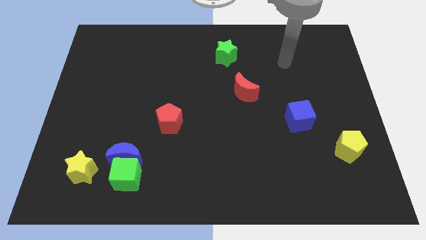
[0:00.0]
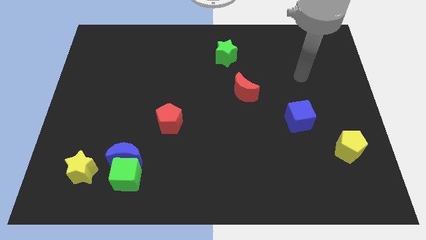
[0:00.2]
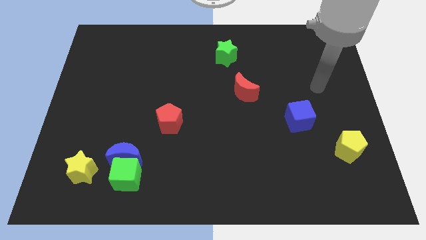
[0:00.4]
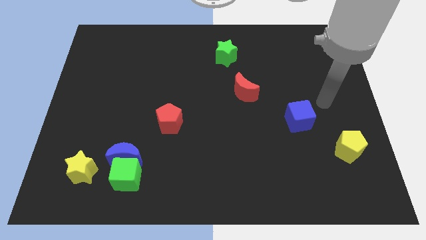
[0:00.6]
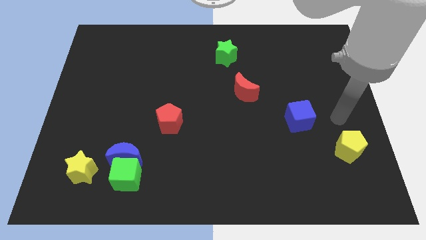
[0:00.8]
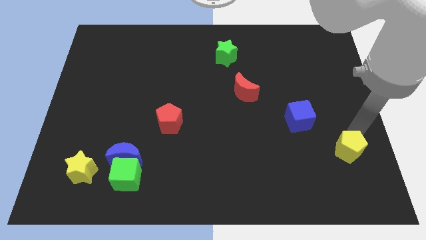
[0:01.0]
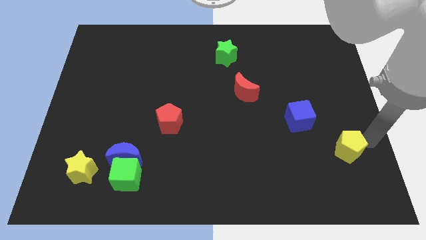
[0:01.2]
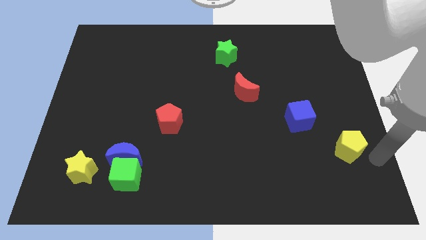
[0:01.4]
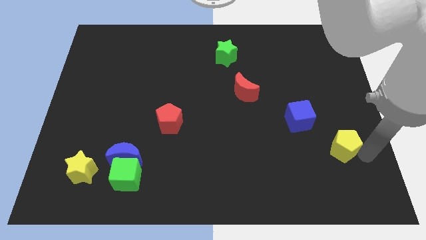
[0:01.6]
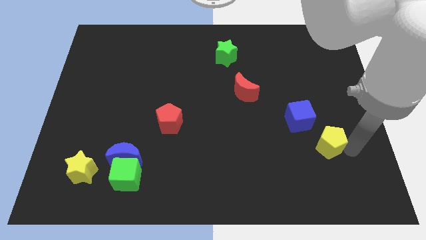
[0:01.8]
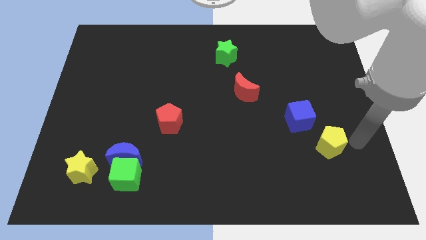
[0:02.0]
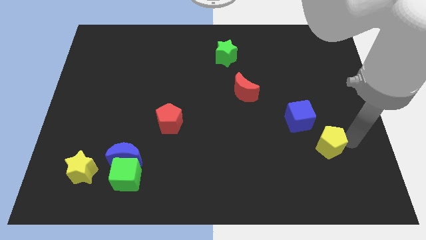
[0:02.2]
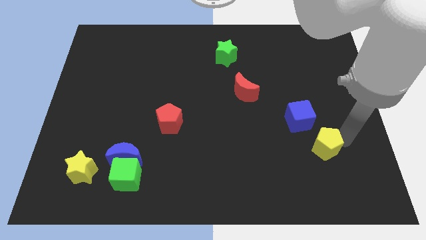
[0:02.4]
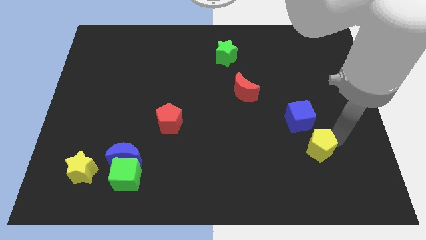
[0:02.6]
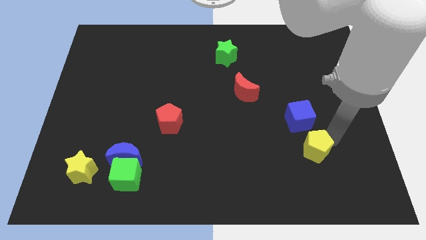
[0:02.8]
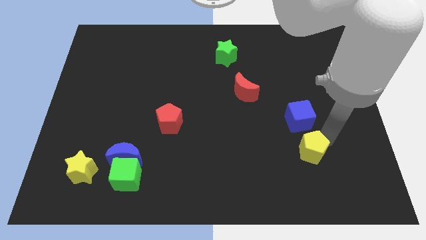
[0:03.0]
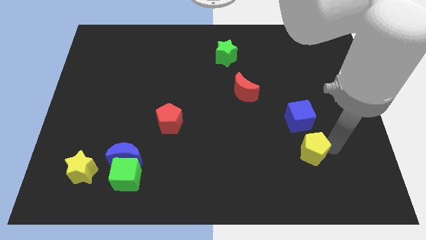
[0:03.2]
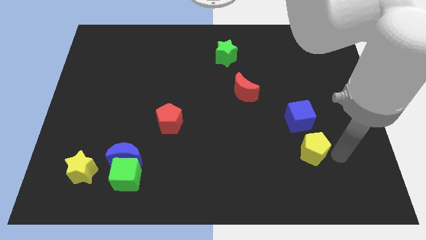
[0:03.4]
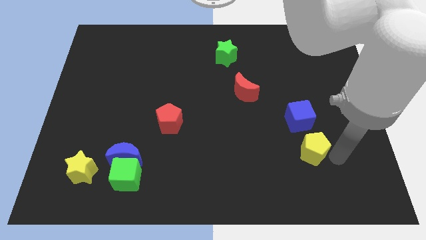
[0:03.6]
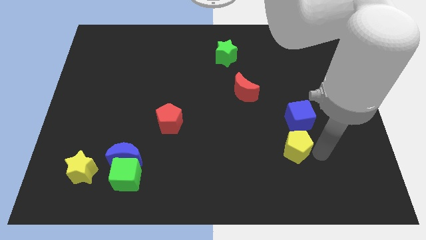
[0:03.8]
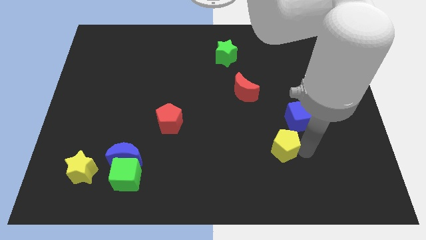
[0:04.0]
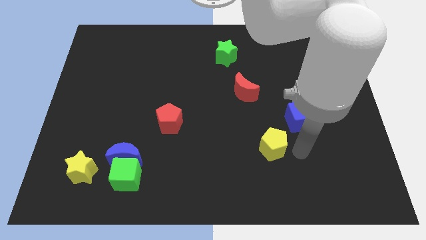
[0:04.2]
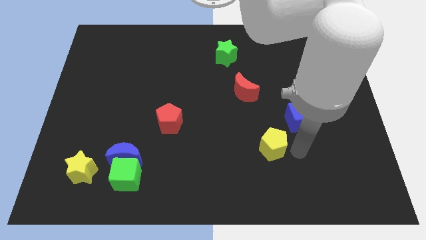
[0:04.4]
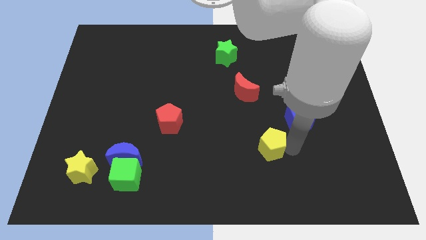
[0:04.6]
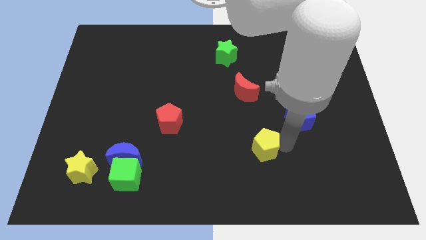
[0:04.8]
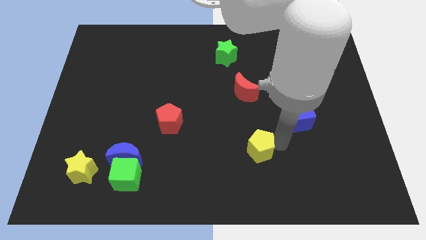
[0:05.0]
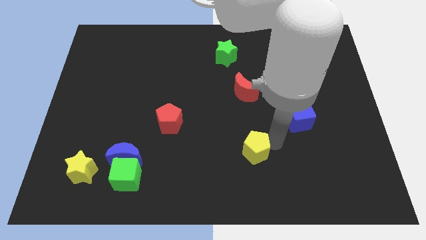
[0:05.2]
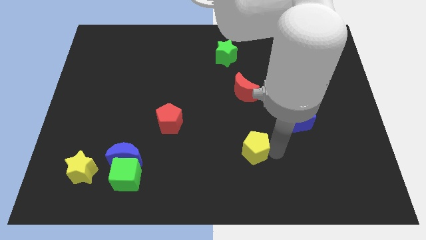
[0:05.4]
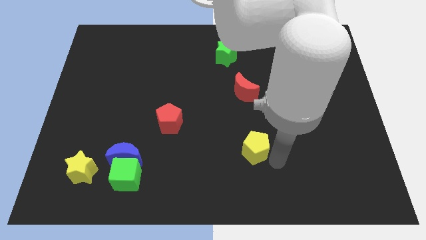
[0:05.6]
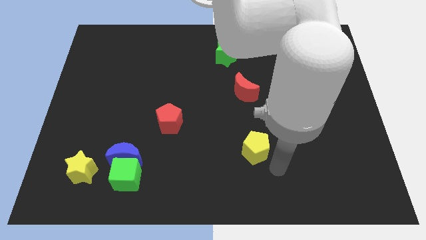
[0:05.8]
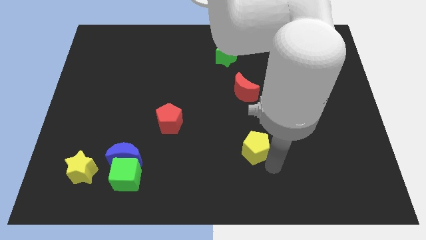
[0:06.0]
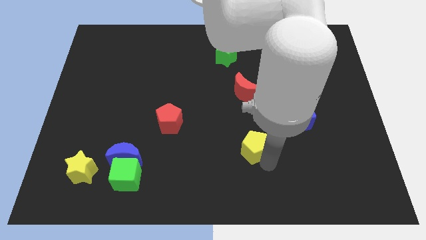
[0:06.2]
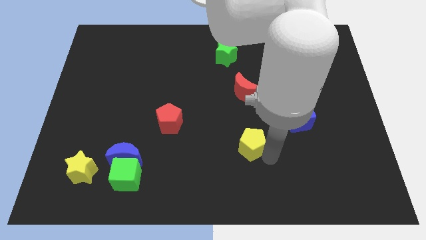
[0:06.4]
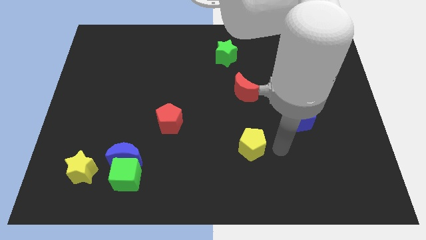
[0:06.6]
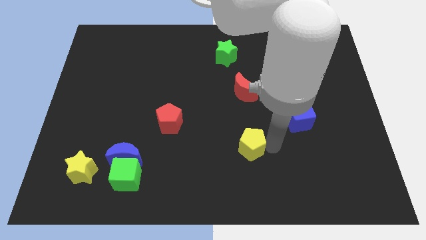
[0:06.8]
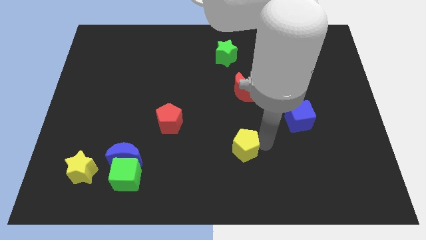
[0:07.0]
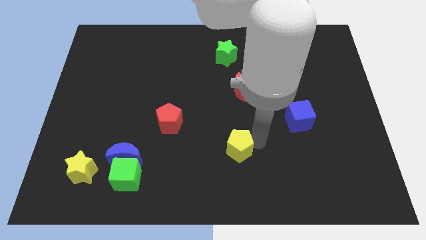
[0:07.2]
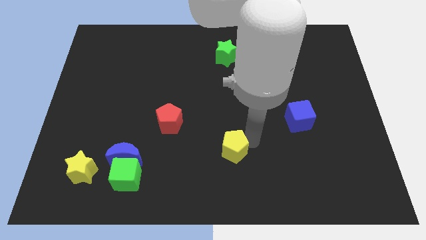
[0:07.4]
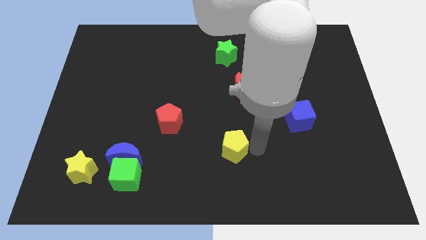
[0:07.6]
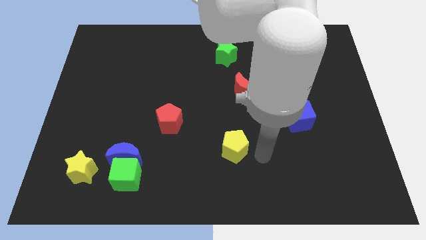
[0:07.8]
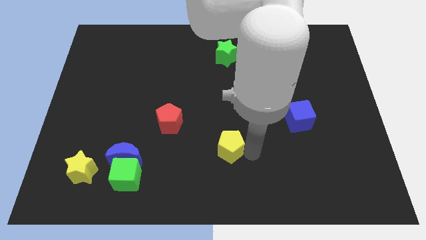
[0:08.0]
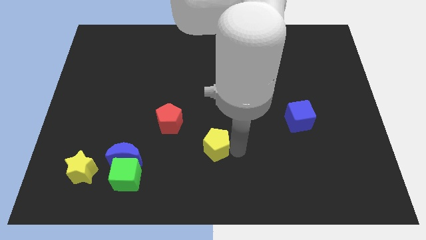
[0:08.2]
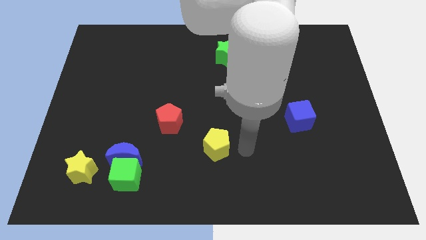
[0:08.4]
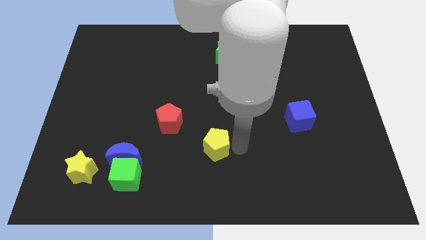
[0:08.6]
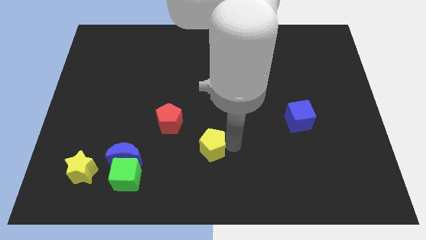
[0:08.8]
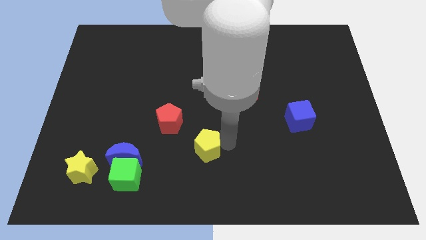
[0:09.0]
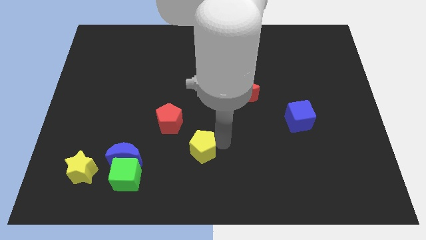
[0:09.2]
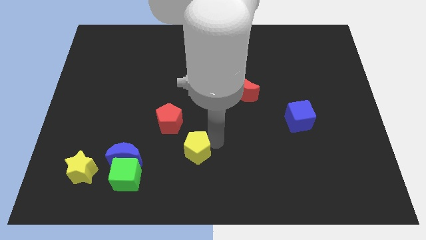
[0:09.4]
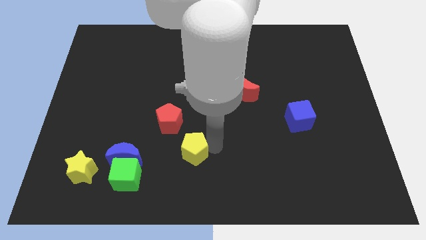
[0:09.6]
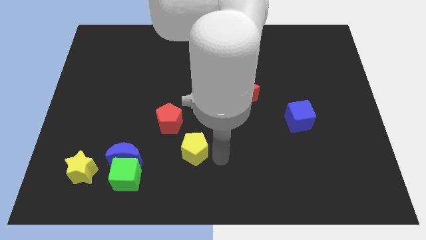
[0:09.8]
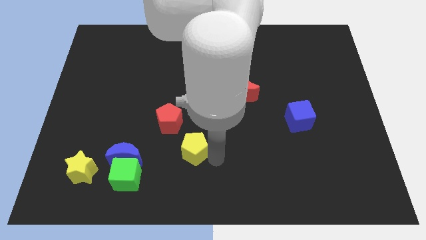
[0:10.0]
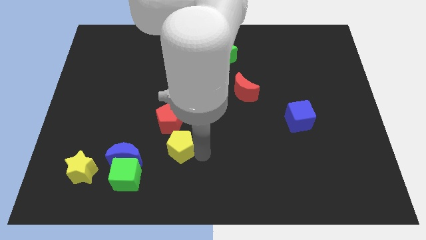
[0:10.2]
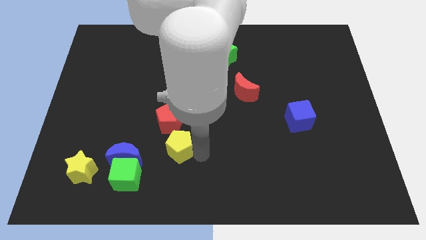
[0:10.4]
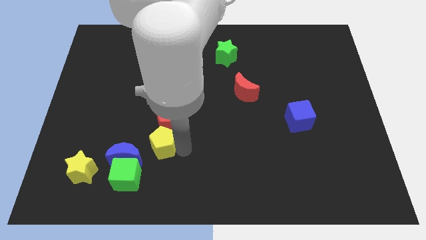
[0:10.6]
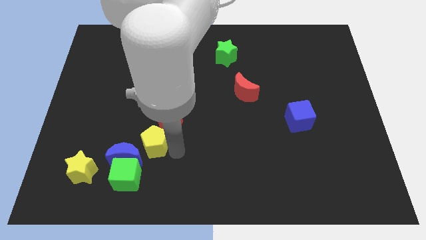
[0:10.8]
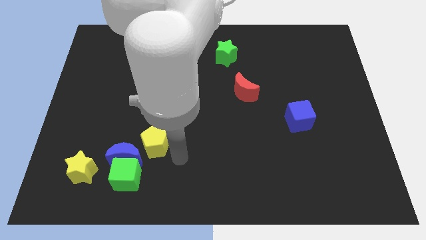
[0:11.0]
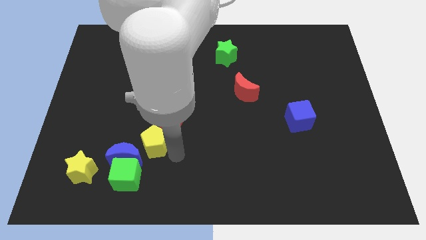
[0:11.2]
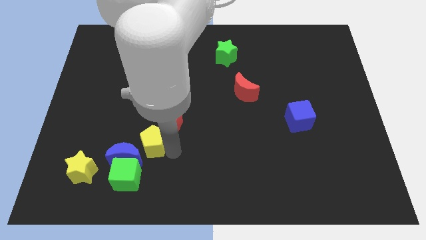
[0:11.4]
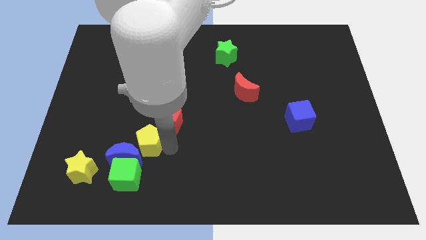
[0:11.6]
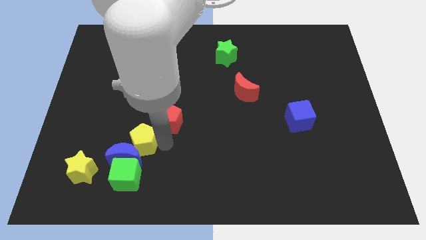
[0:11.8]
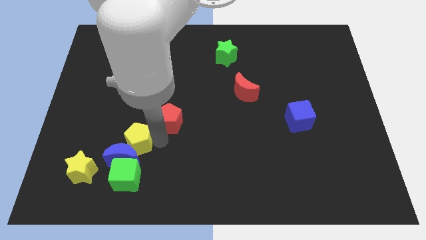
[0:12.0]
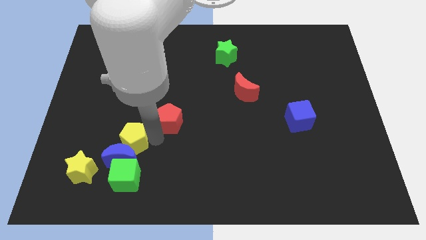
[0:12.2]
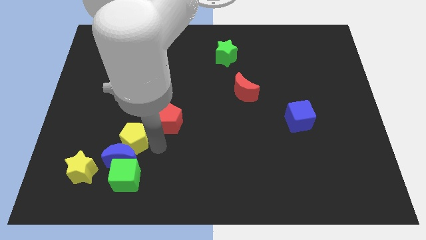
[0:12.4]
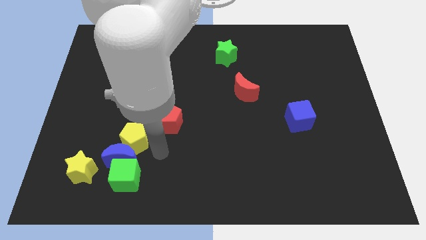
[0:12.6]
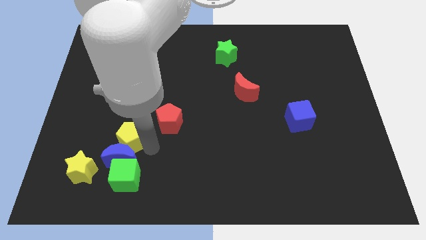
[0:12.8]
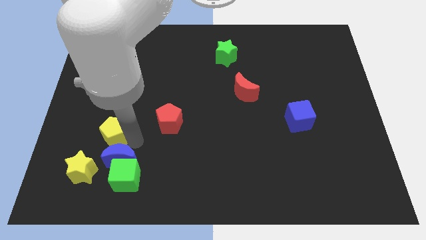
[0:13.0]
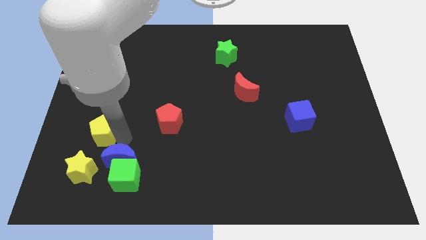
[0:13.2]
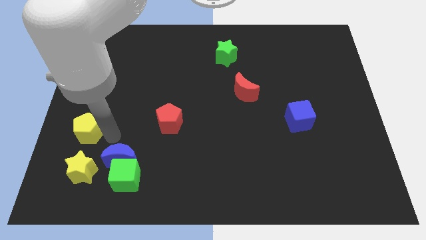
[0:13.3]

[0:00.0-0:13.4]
slide the yellow pentagon to the center left
